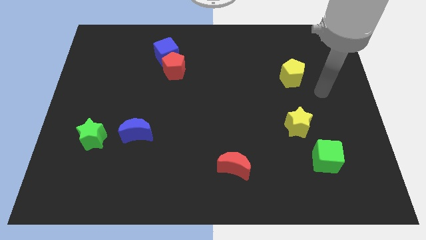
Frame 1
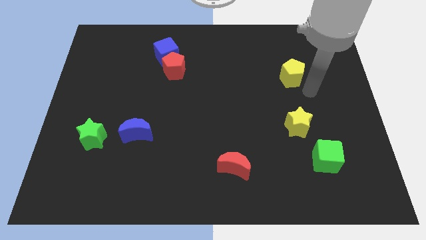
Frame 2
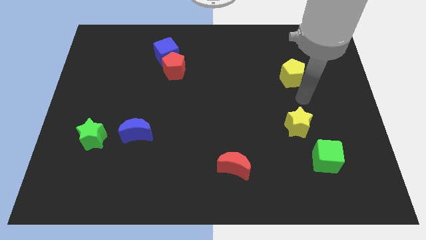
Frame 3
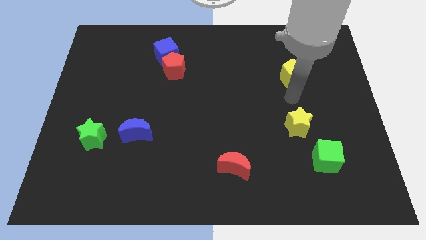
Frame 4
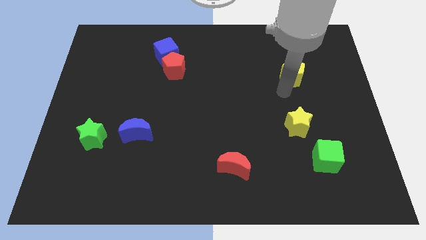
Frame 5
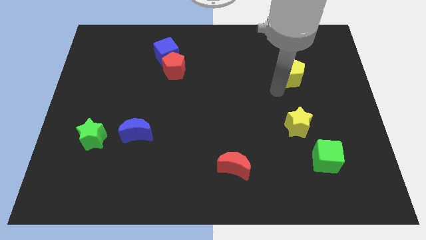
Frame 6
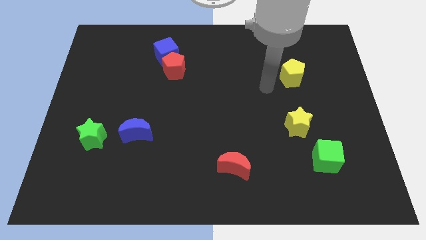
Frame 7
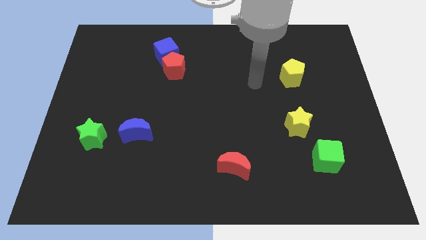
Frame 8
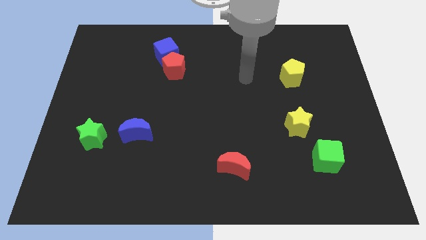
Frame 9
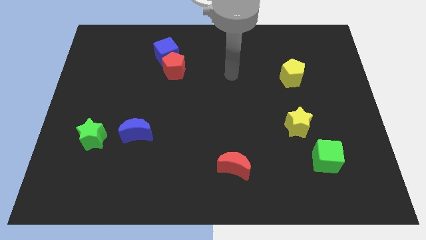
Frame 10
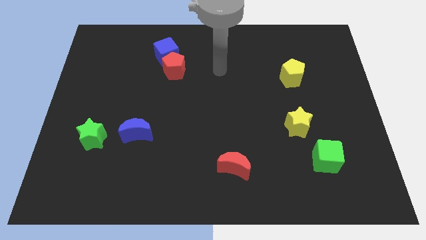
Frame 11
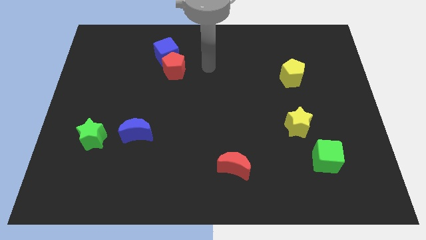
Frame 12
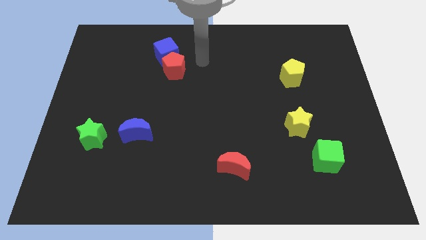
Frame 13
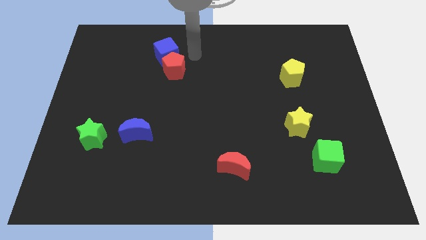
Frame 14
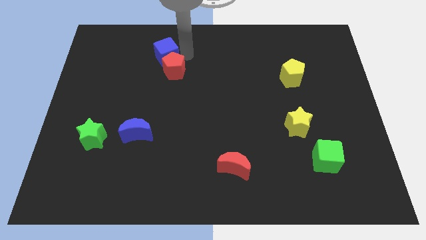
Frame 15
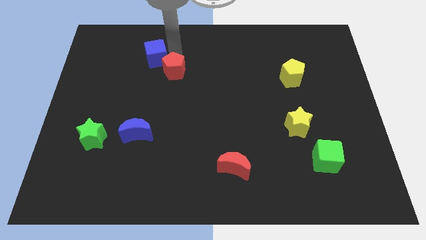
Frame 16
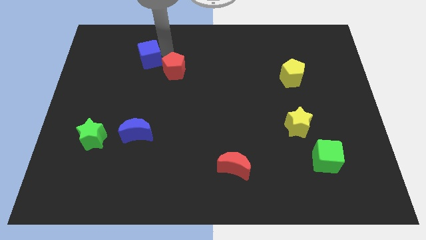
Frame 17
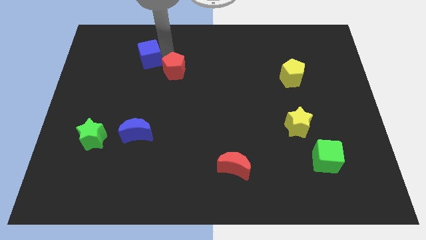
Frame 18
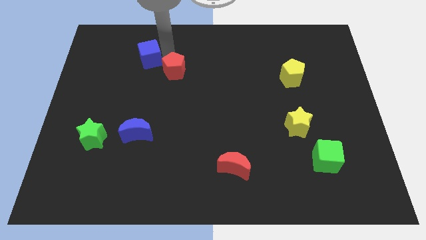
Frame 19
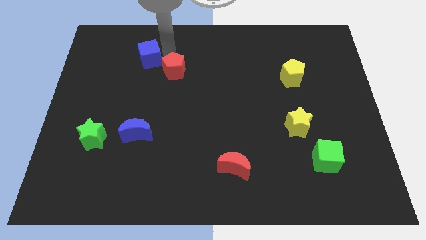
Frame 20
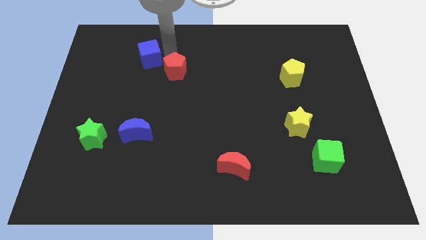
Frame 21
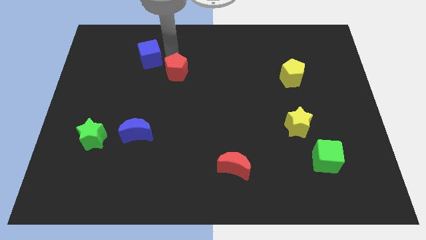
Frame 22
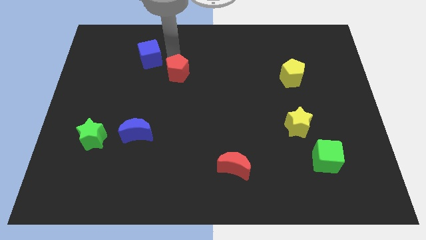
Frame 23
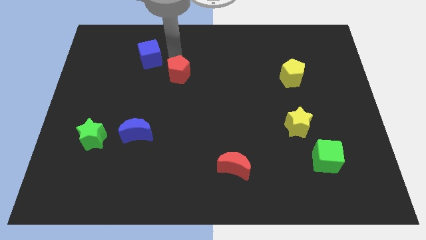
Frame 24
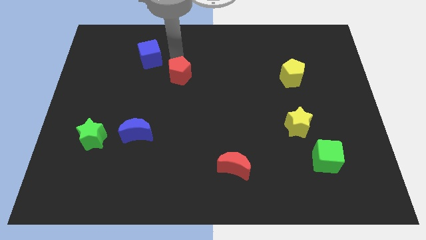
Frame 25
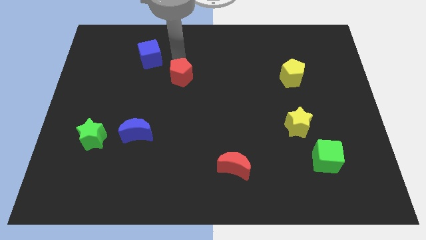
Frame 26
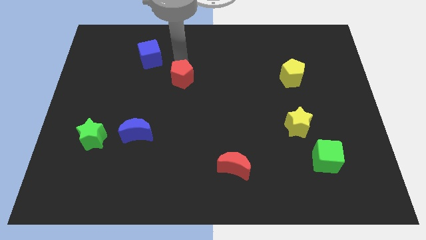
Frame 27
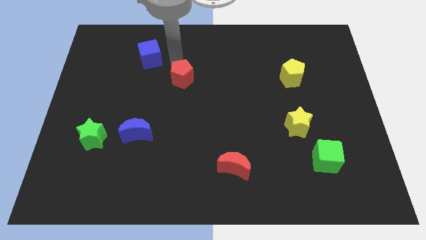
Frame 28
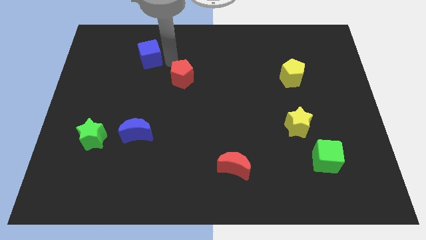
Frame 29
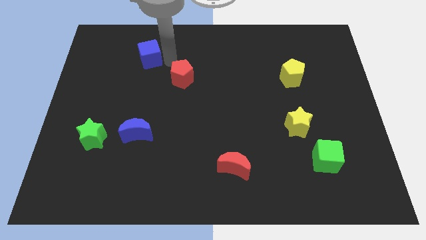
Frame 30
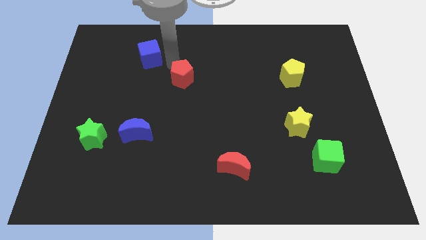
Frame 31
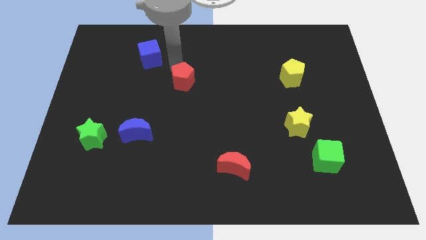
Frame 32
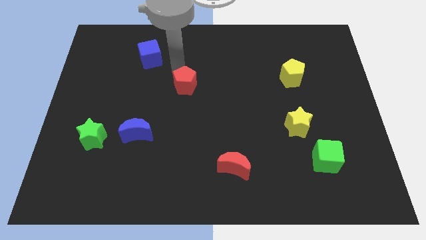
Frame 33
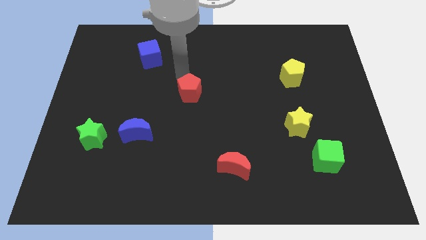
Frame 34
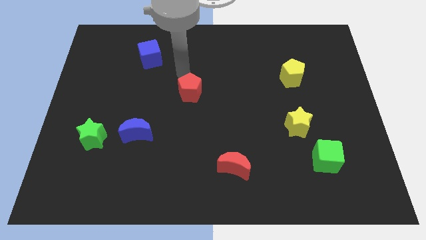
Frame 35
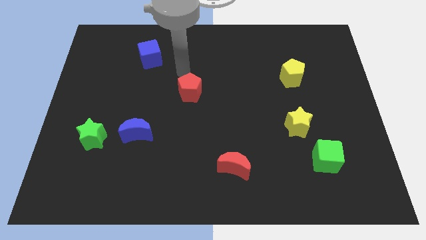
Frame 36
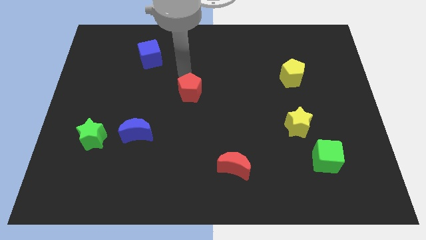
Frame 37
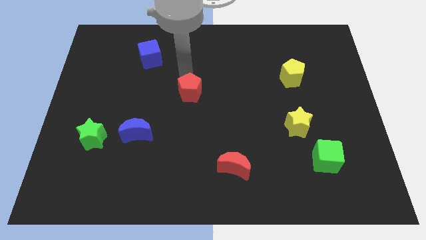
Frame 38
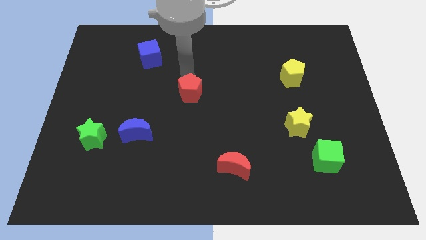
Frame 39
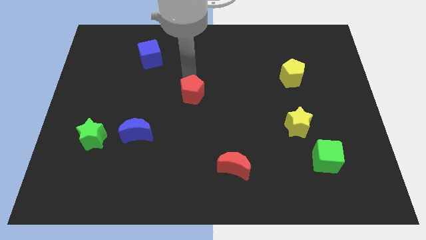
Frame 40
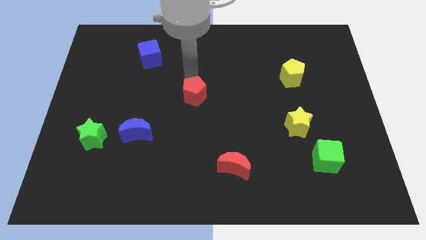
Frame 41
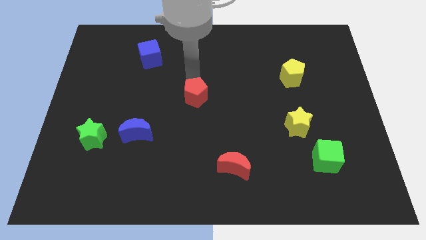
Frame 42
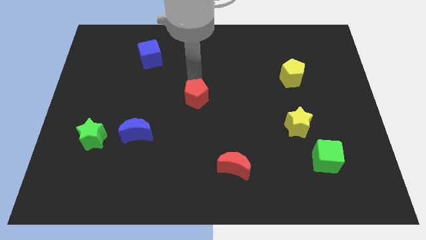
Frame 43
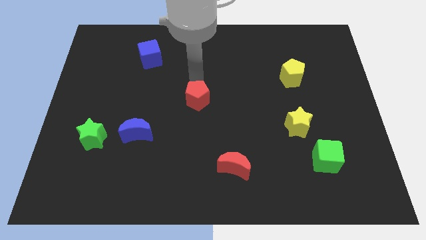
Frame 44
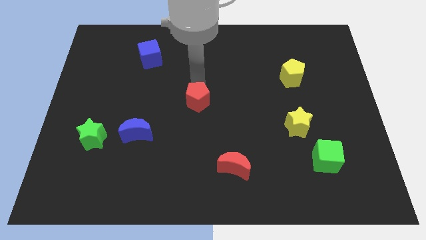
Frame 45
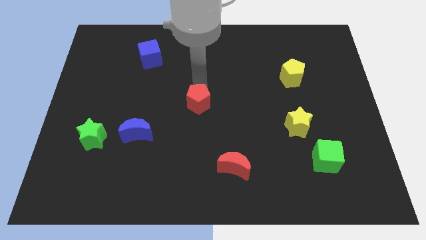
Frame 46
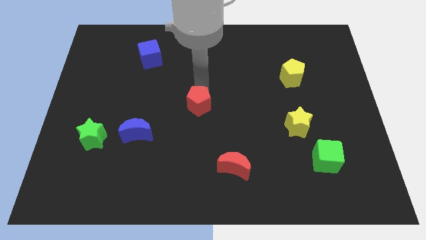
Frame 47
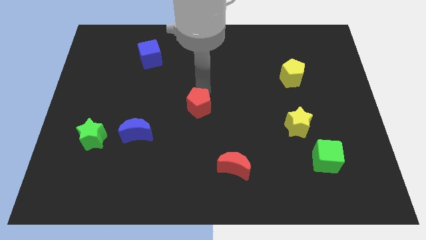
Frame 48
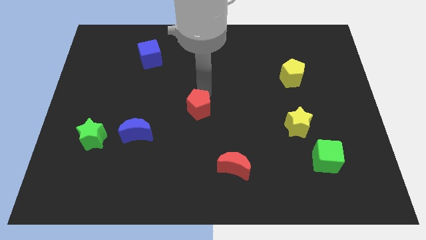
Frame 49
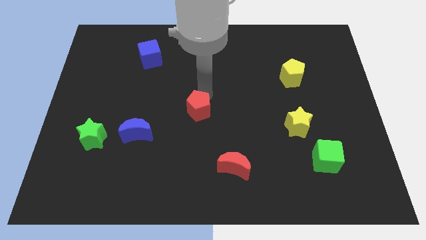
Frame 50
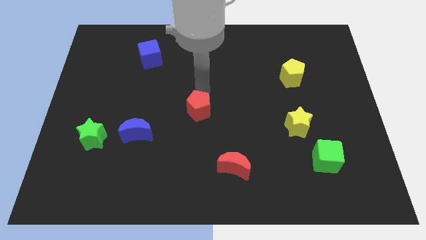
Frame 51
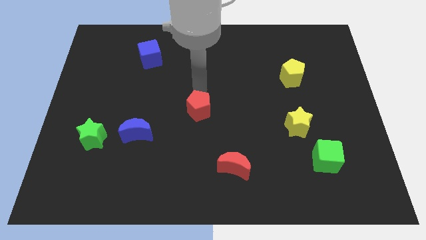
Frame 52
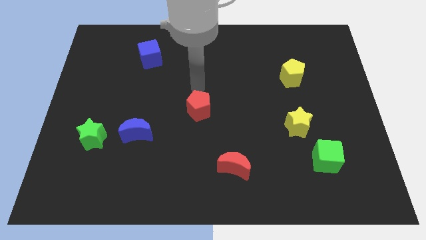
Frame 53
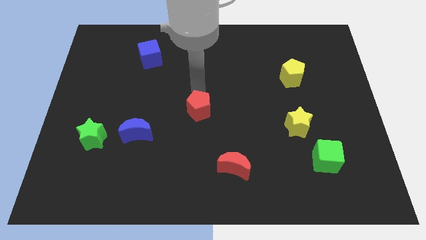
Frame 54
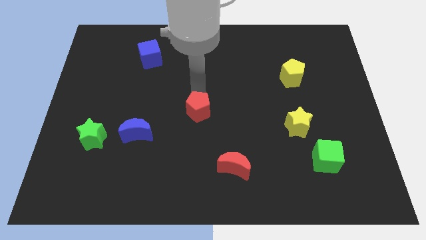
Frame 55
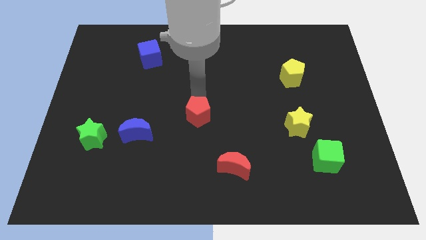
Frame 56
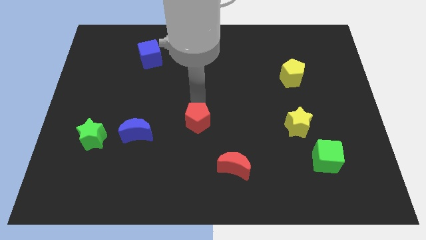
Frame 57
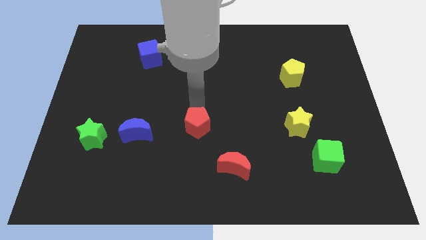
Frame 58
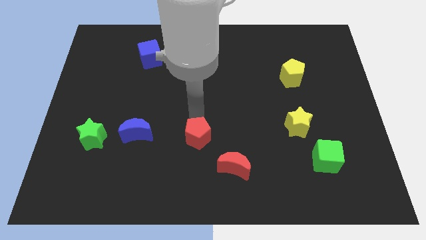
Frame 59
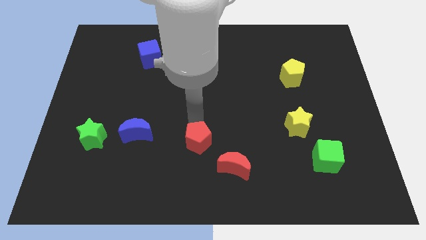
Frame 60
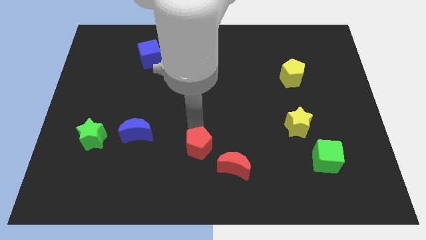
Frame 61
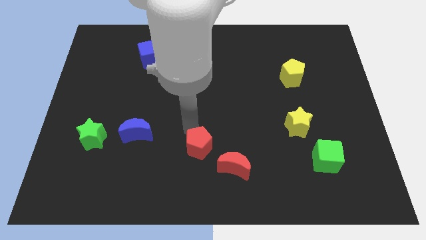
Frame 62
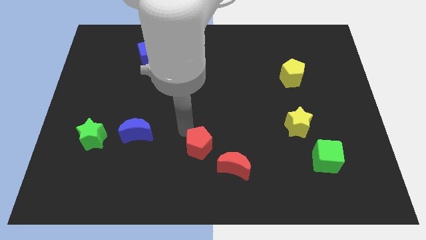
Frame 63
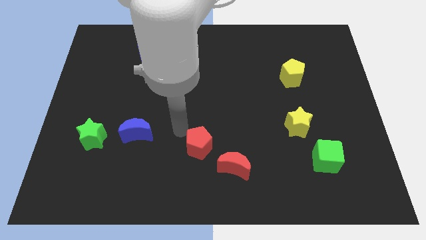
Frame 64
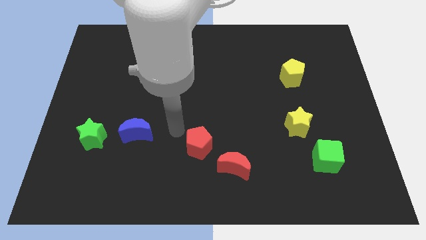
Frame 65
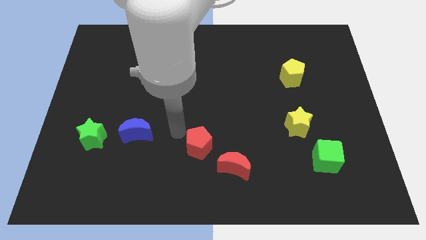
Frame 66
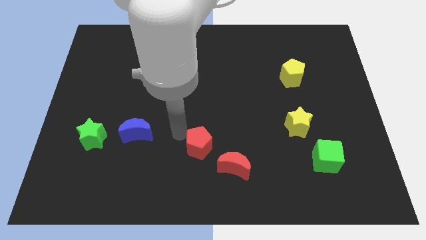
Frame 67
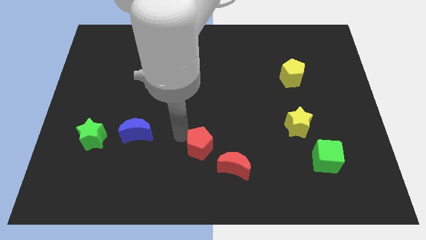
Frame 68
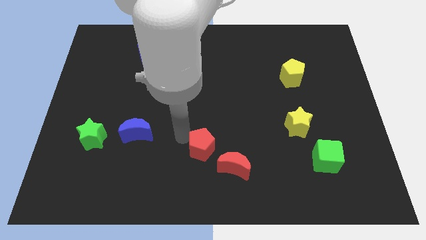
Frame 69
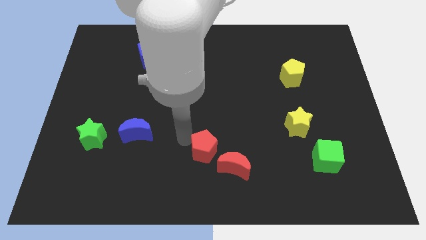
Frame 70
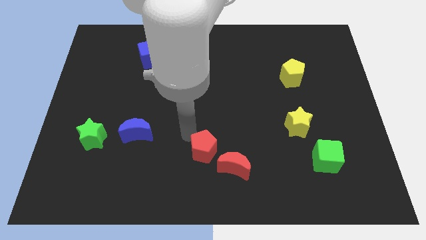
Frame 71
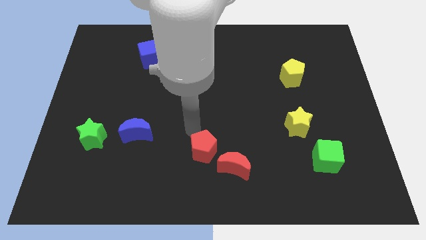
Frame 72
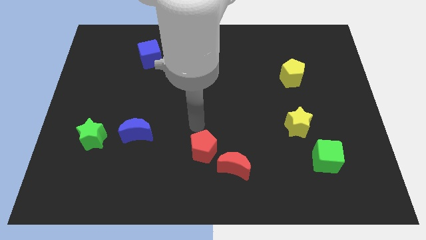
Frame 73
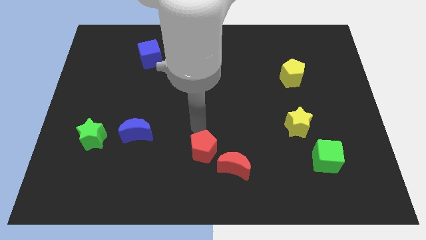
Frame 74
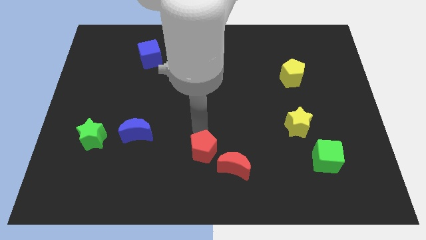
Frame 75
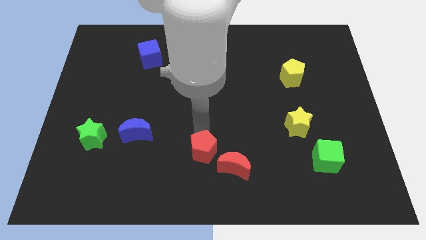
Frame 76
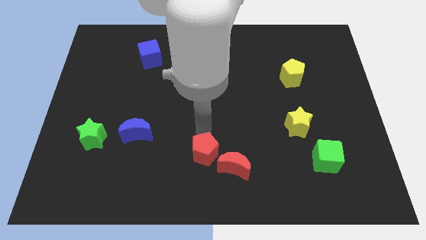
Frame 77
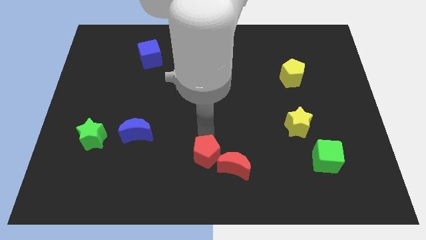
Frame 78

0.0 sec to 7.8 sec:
move the red pentagon to the bottom side
